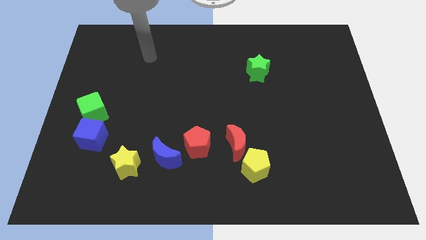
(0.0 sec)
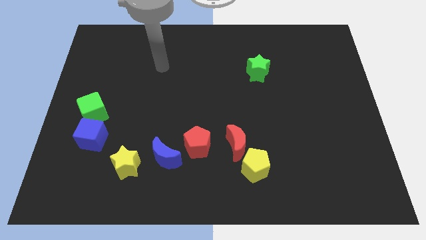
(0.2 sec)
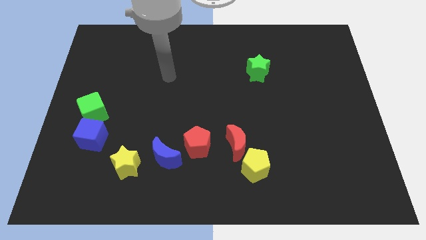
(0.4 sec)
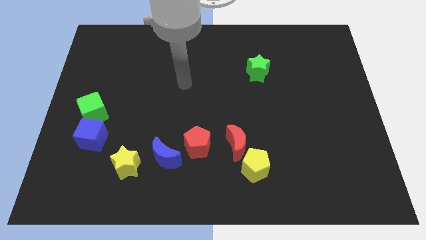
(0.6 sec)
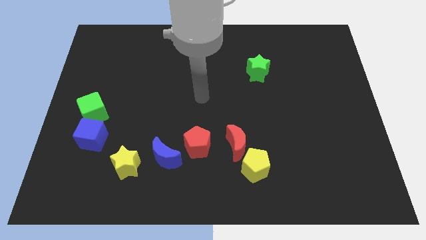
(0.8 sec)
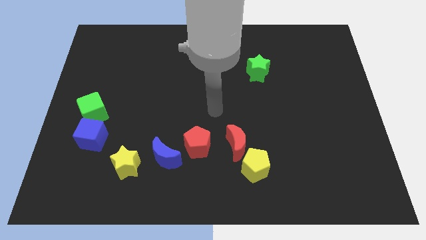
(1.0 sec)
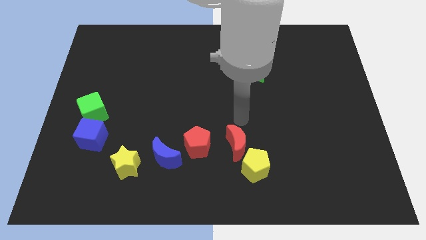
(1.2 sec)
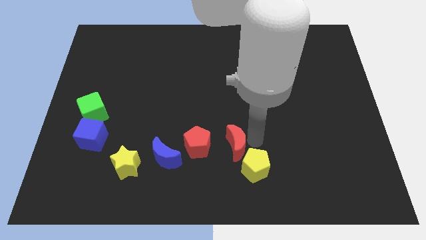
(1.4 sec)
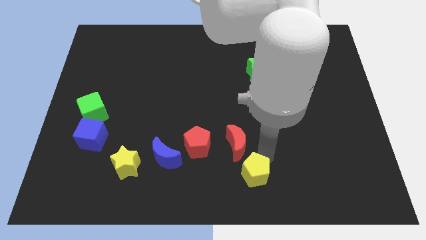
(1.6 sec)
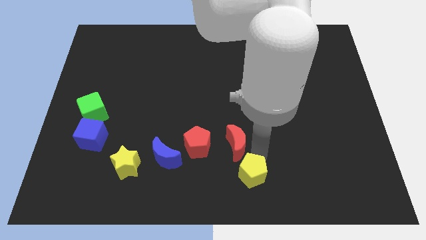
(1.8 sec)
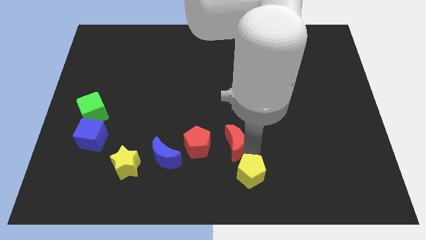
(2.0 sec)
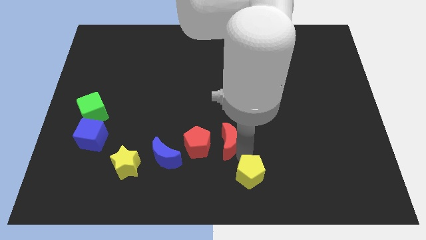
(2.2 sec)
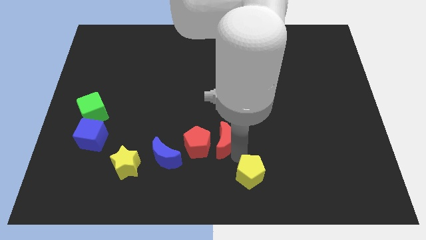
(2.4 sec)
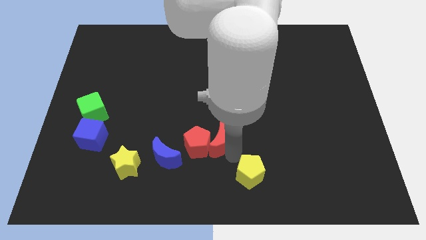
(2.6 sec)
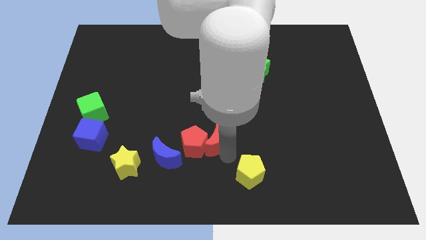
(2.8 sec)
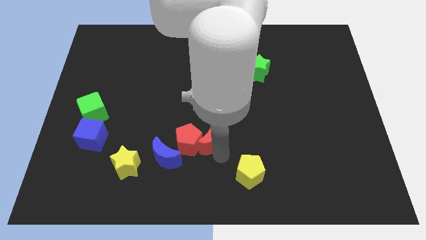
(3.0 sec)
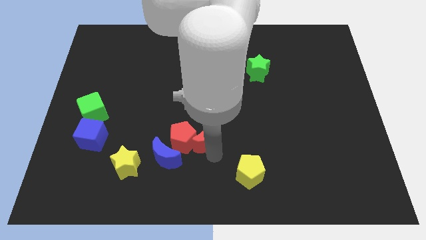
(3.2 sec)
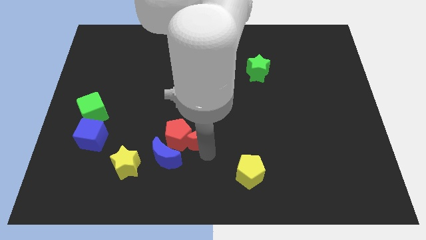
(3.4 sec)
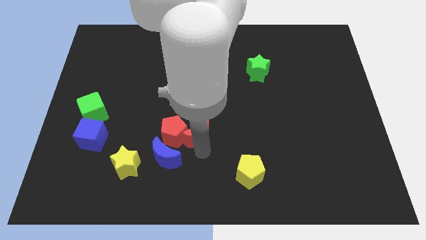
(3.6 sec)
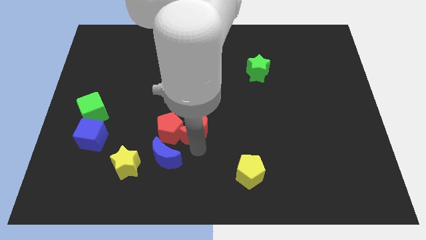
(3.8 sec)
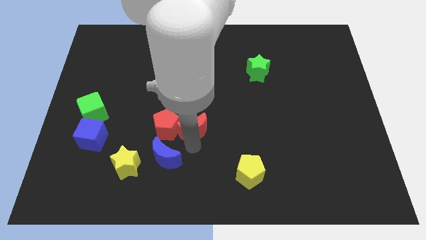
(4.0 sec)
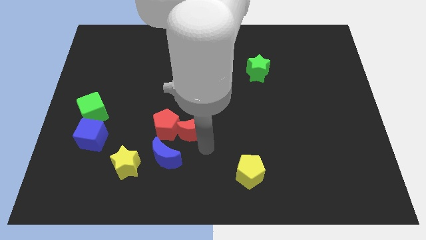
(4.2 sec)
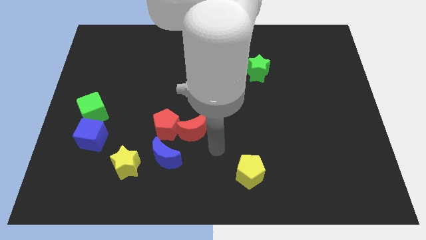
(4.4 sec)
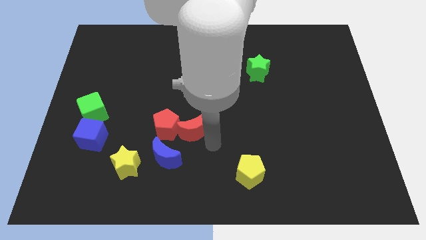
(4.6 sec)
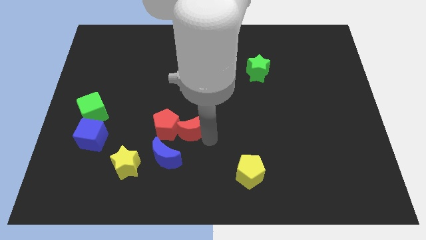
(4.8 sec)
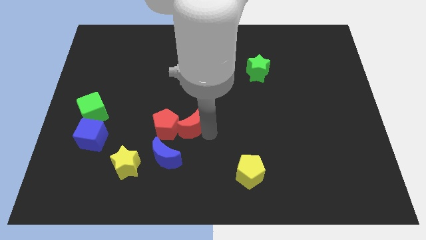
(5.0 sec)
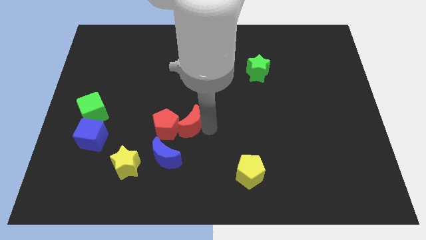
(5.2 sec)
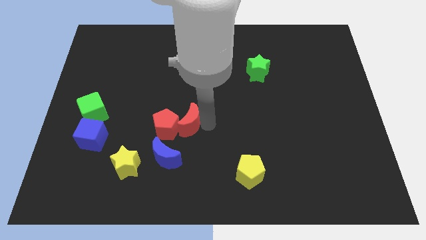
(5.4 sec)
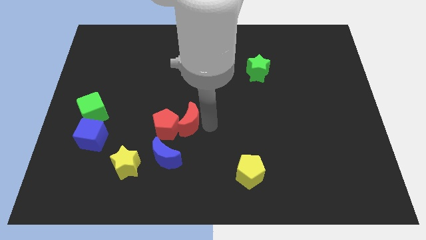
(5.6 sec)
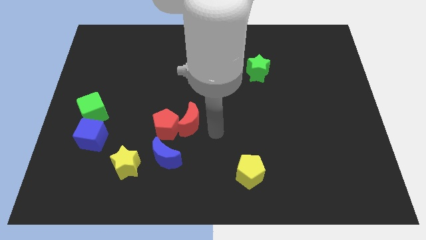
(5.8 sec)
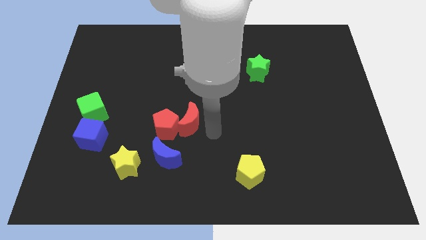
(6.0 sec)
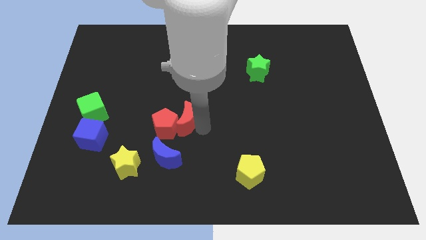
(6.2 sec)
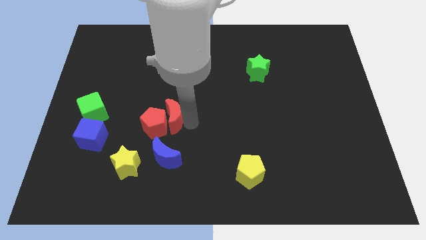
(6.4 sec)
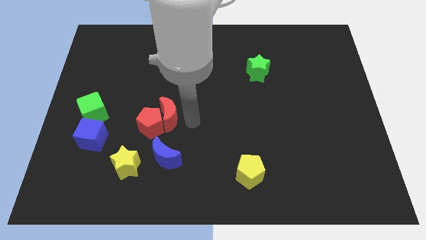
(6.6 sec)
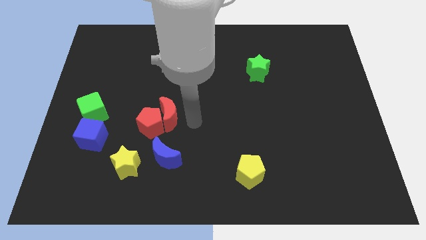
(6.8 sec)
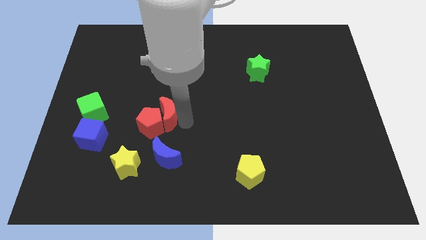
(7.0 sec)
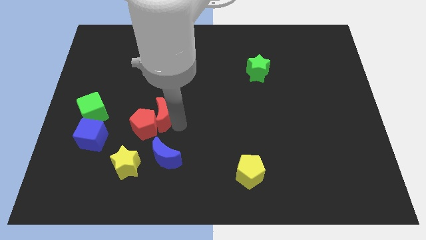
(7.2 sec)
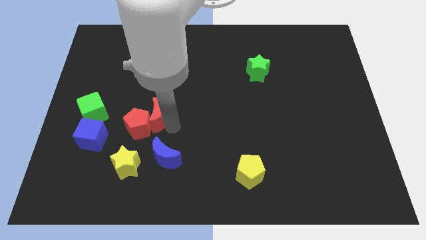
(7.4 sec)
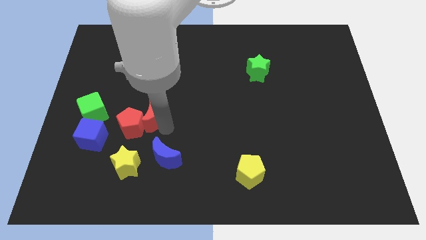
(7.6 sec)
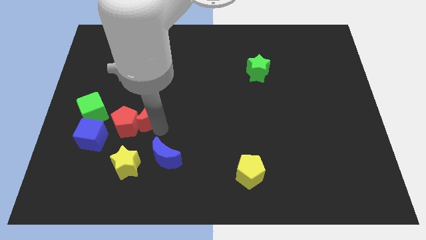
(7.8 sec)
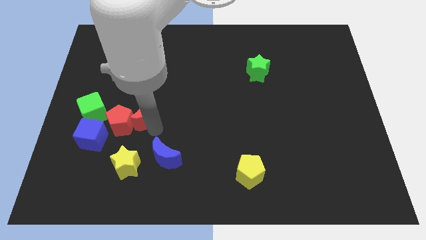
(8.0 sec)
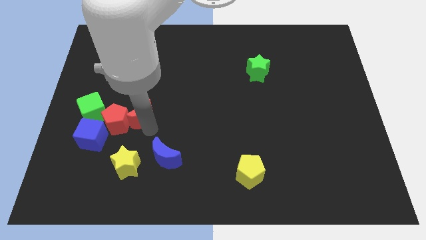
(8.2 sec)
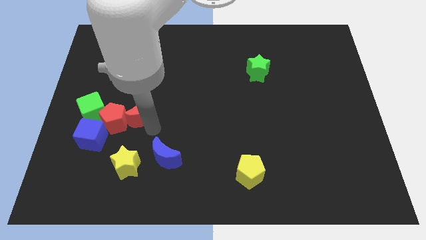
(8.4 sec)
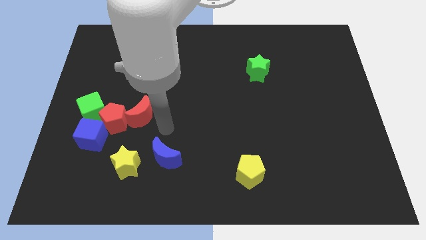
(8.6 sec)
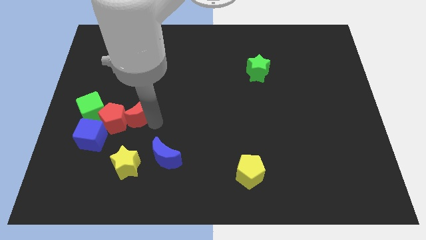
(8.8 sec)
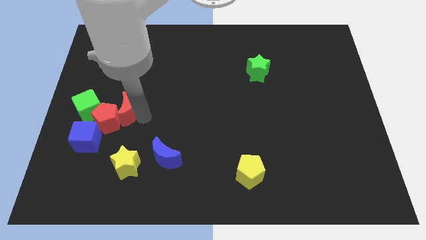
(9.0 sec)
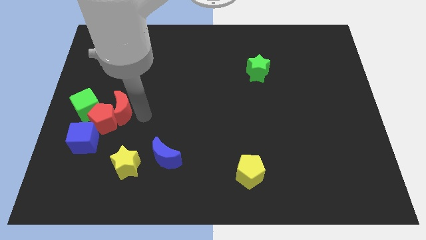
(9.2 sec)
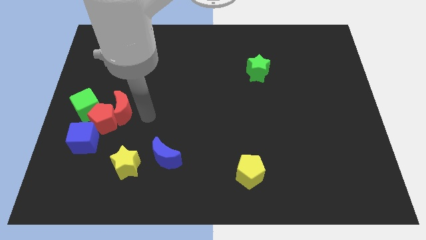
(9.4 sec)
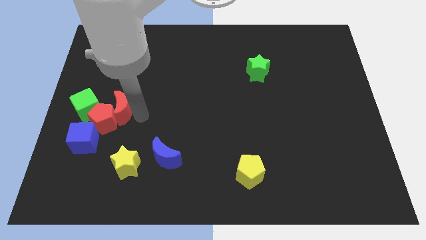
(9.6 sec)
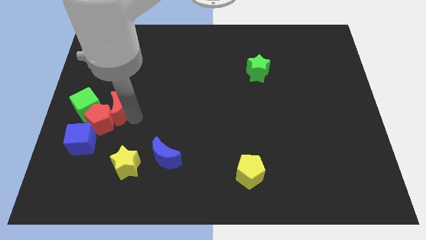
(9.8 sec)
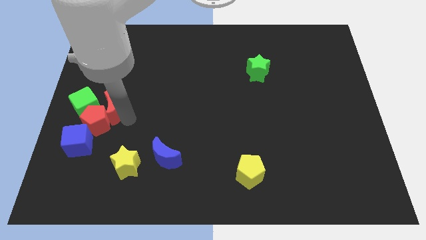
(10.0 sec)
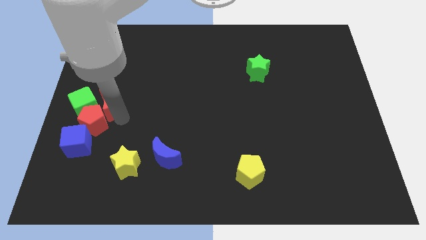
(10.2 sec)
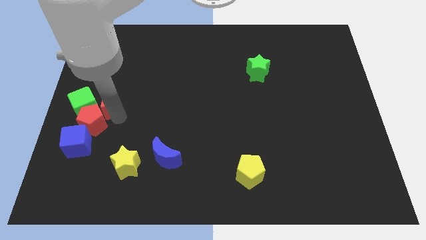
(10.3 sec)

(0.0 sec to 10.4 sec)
push the red moon to the top of the blue cube

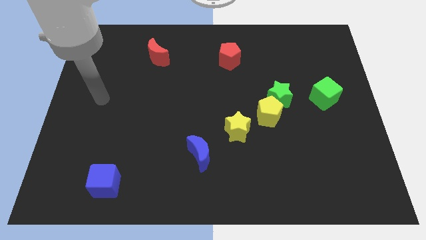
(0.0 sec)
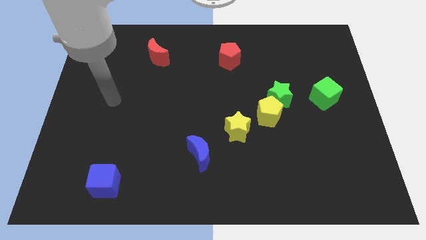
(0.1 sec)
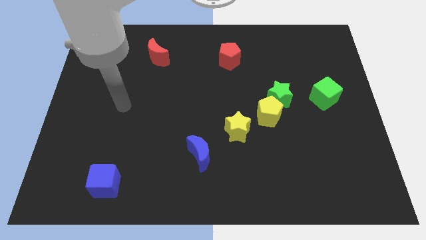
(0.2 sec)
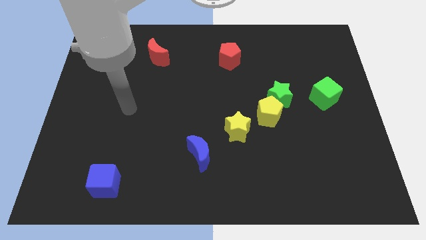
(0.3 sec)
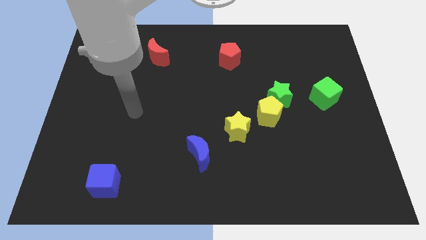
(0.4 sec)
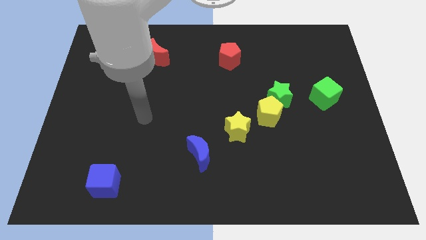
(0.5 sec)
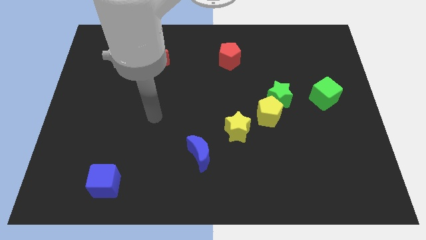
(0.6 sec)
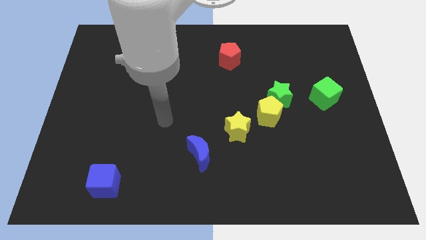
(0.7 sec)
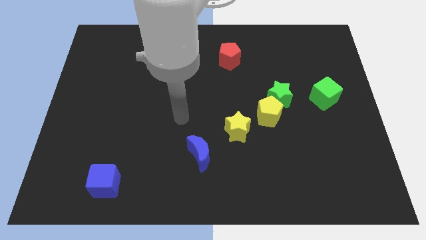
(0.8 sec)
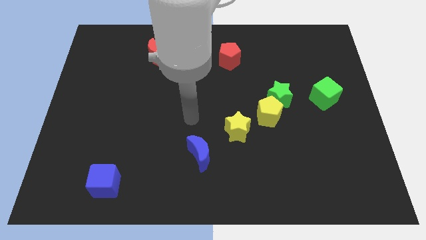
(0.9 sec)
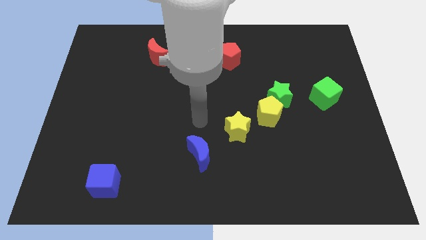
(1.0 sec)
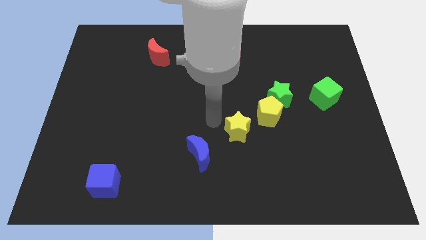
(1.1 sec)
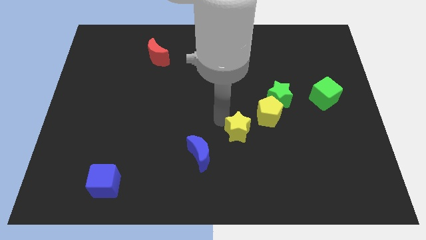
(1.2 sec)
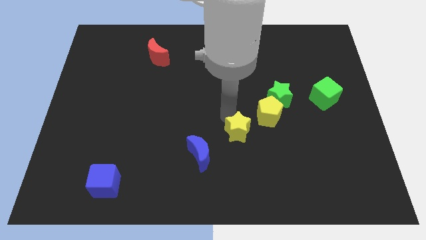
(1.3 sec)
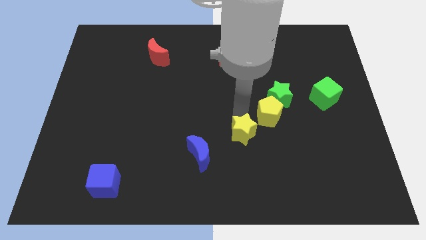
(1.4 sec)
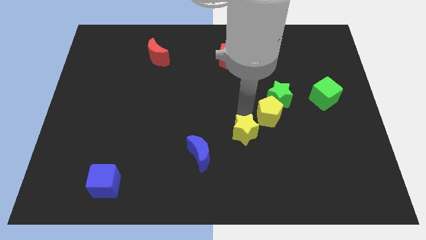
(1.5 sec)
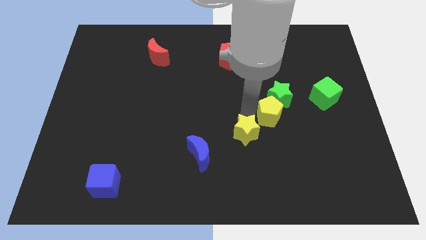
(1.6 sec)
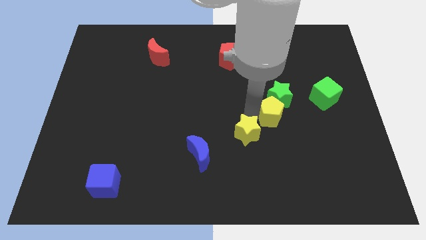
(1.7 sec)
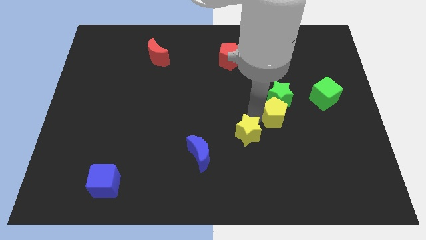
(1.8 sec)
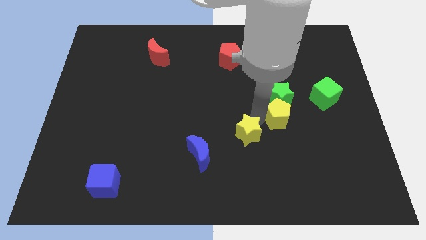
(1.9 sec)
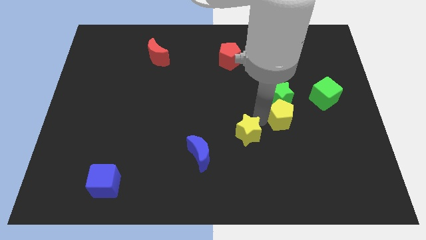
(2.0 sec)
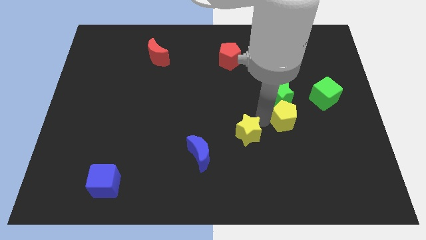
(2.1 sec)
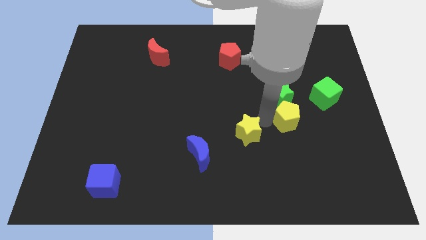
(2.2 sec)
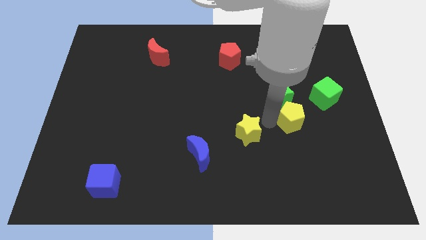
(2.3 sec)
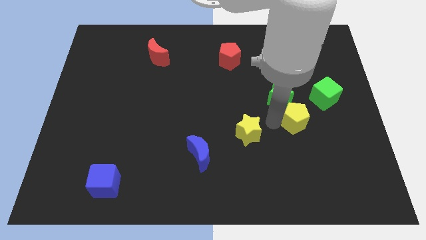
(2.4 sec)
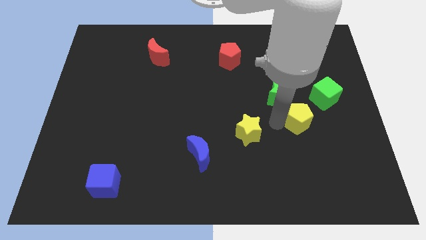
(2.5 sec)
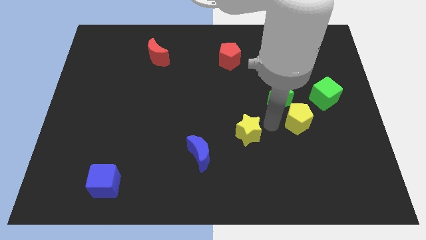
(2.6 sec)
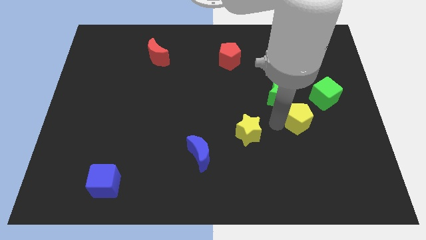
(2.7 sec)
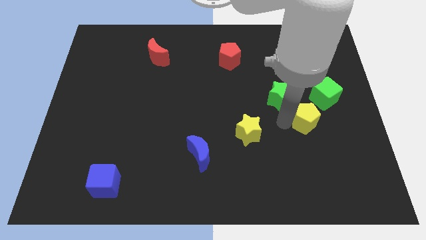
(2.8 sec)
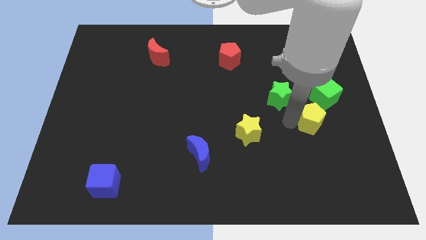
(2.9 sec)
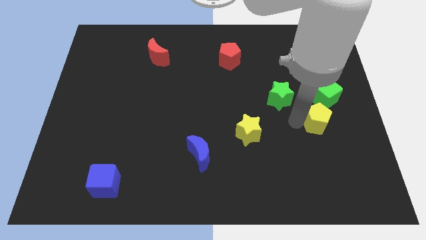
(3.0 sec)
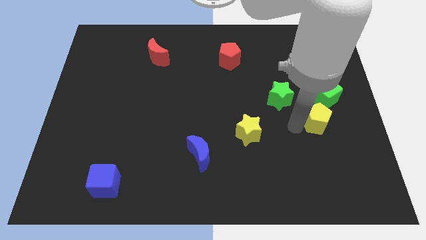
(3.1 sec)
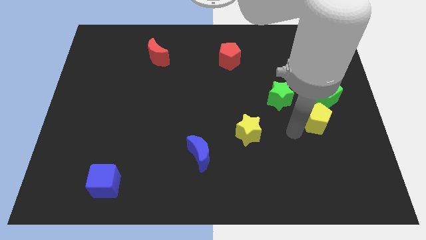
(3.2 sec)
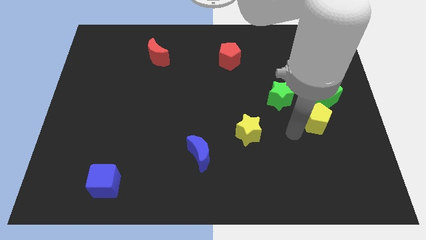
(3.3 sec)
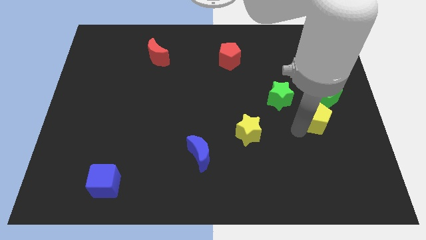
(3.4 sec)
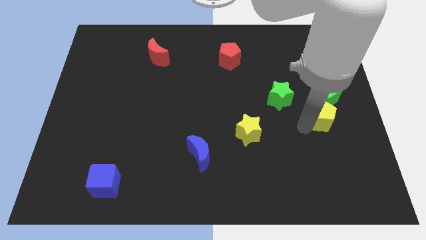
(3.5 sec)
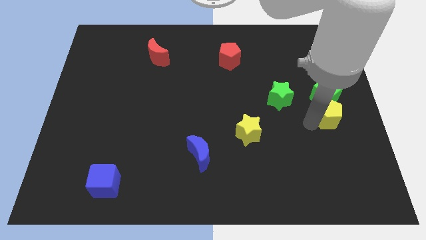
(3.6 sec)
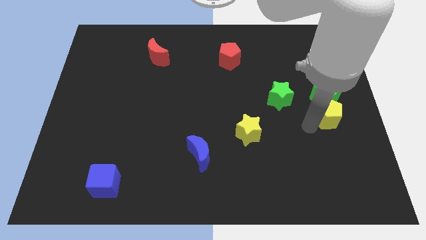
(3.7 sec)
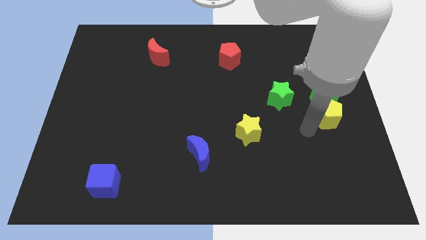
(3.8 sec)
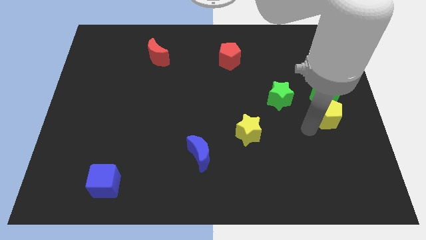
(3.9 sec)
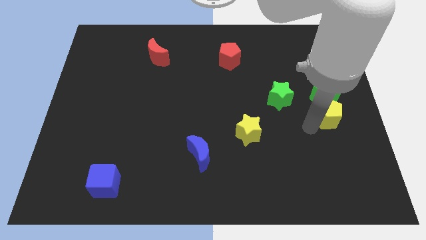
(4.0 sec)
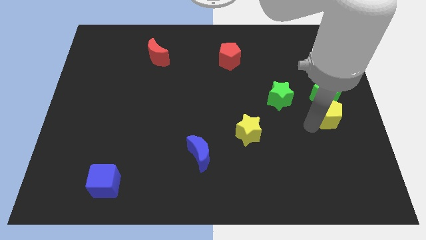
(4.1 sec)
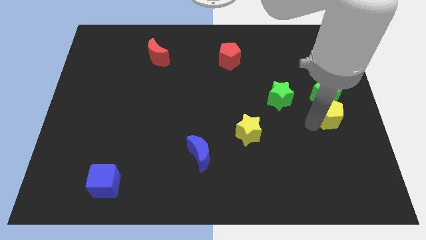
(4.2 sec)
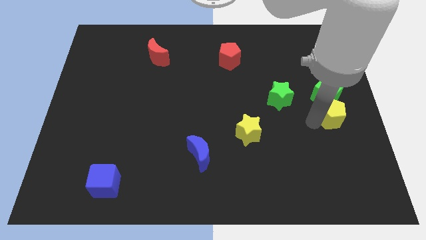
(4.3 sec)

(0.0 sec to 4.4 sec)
put the yellow pentagon just right of the green star
